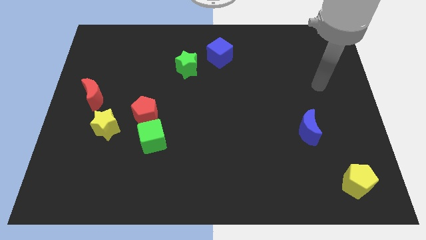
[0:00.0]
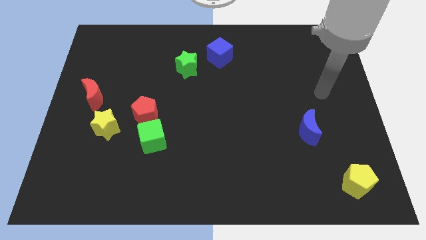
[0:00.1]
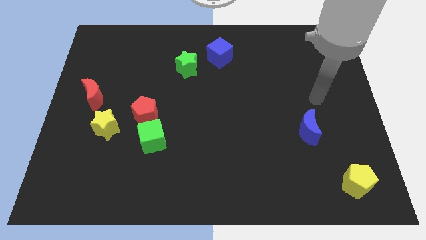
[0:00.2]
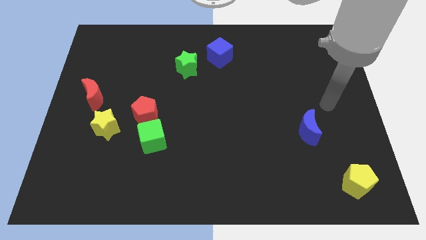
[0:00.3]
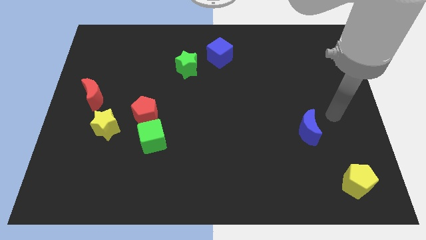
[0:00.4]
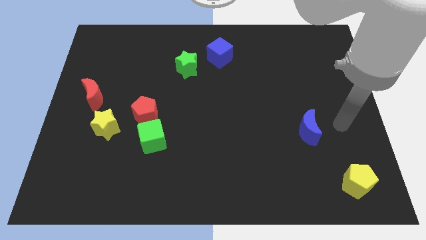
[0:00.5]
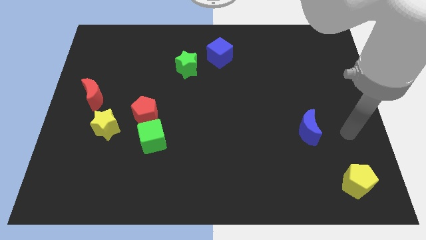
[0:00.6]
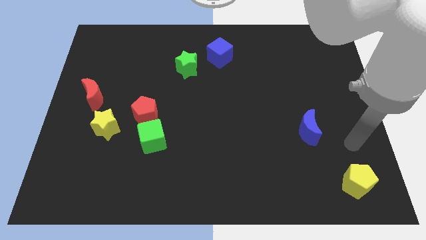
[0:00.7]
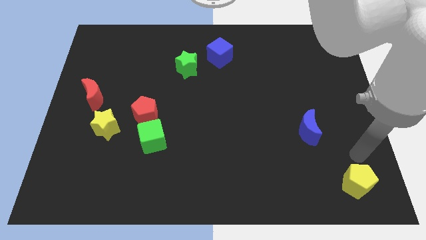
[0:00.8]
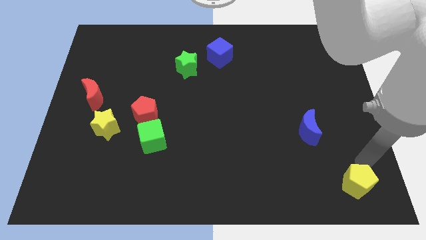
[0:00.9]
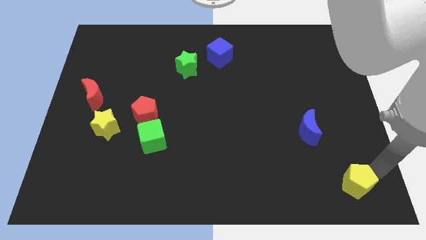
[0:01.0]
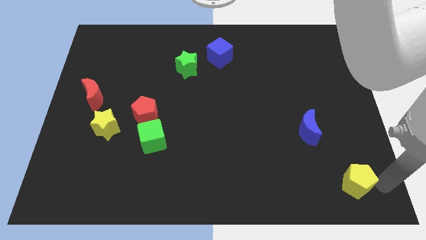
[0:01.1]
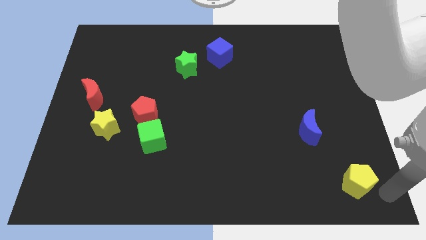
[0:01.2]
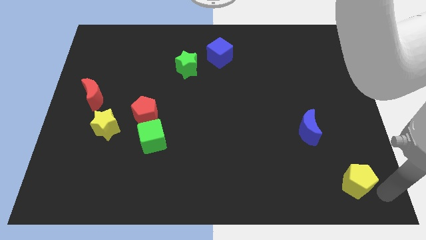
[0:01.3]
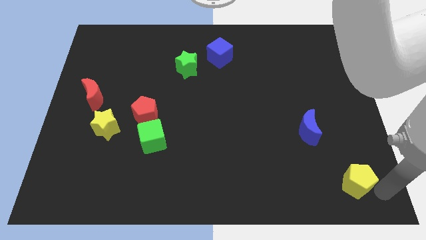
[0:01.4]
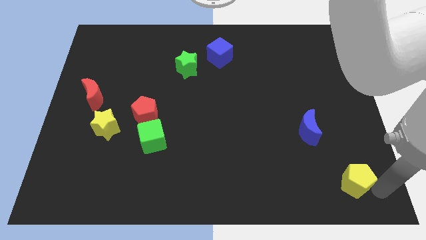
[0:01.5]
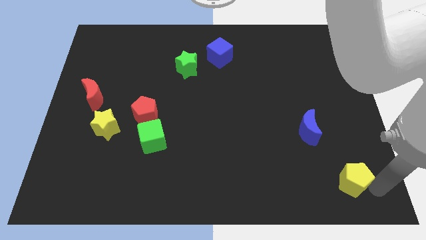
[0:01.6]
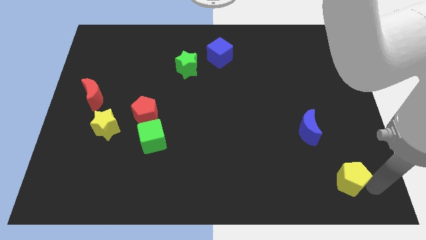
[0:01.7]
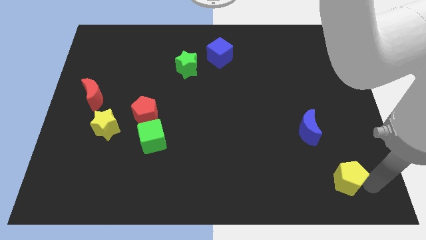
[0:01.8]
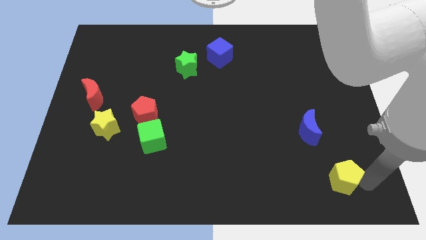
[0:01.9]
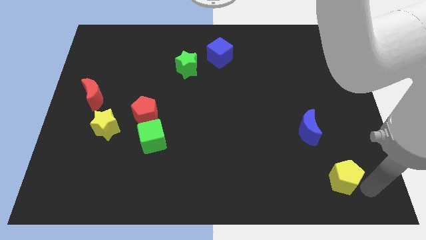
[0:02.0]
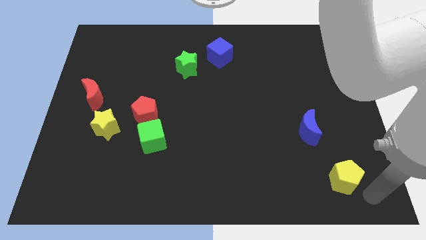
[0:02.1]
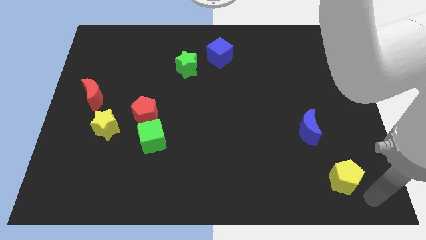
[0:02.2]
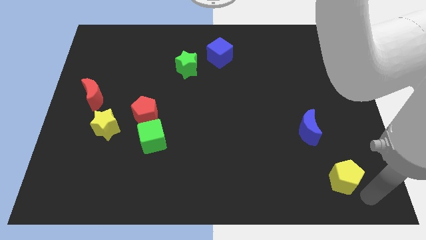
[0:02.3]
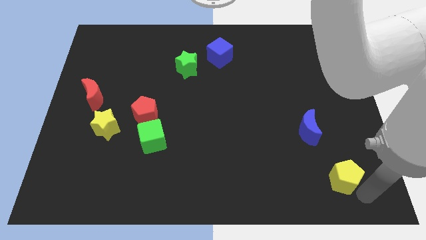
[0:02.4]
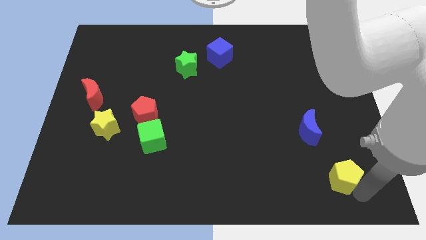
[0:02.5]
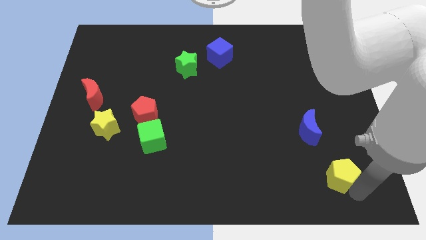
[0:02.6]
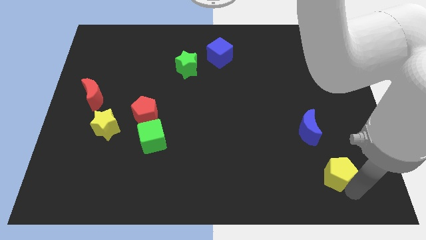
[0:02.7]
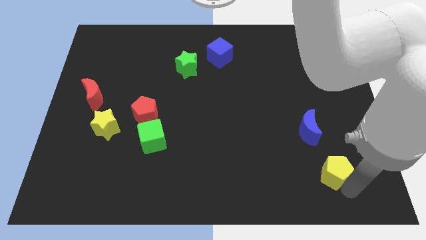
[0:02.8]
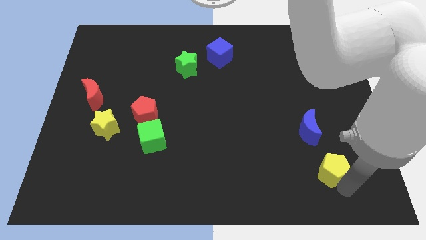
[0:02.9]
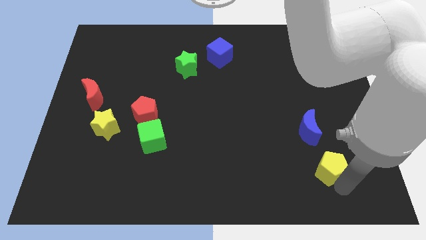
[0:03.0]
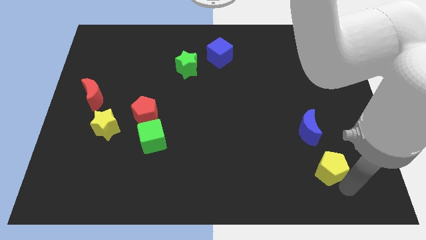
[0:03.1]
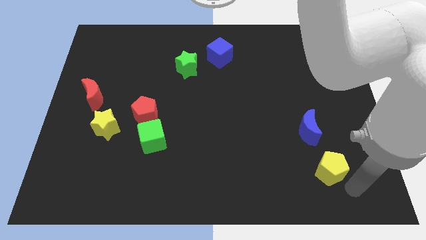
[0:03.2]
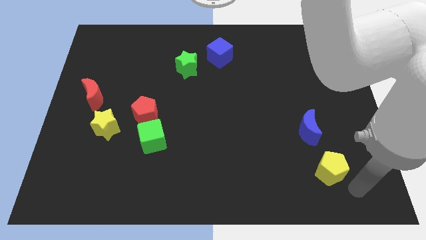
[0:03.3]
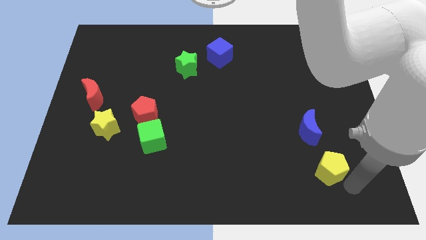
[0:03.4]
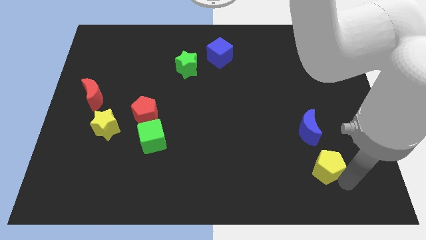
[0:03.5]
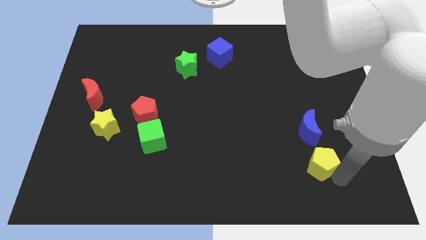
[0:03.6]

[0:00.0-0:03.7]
slightly slide the yellow pentagon upwards and to the left

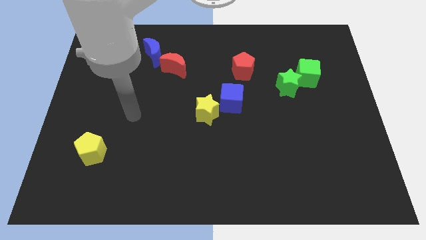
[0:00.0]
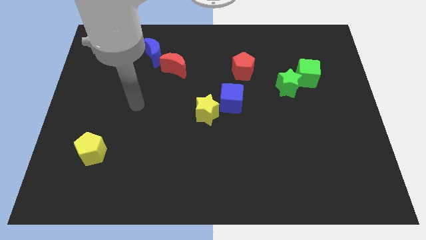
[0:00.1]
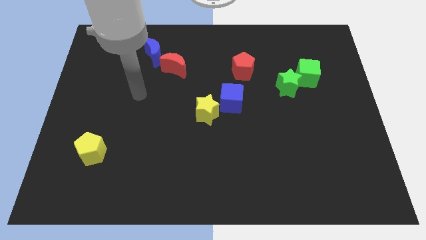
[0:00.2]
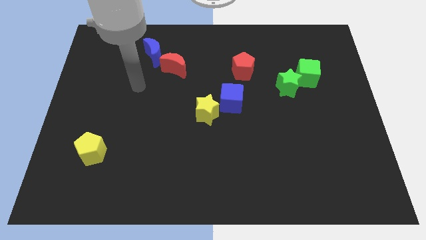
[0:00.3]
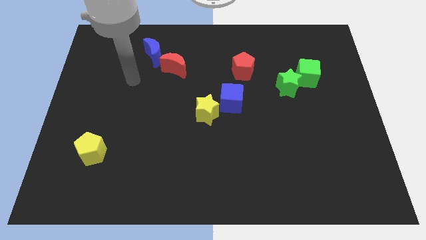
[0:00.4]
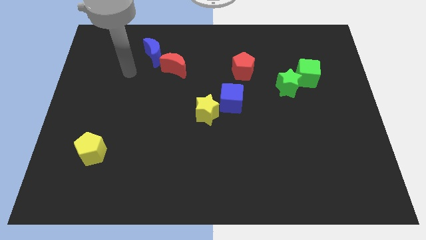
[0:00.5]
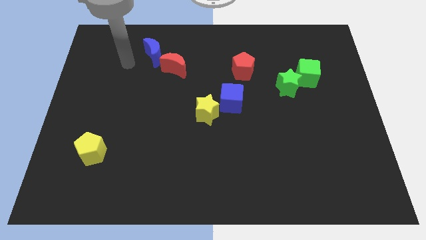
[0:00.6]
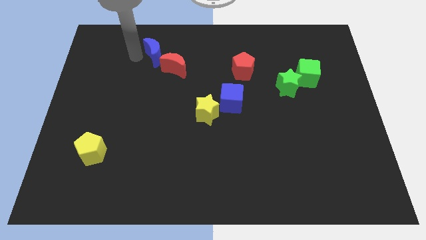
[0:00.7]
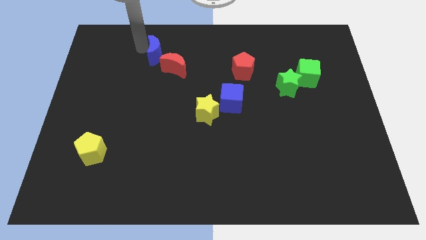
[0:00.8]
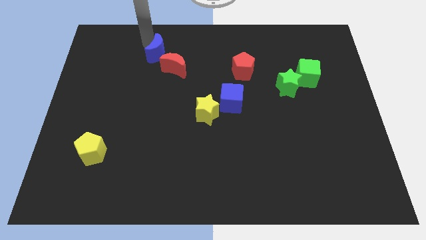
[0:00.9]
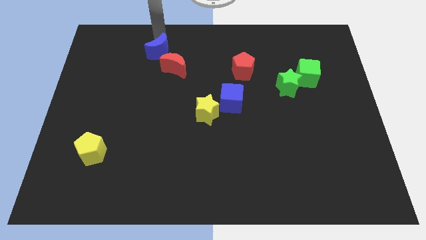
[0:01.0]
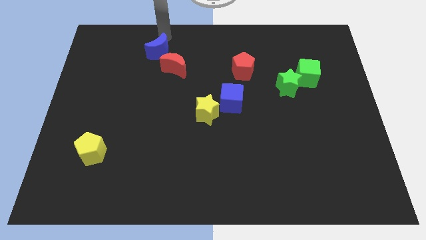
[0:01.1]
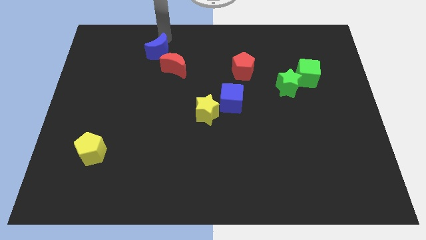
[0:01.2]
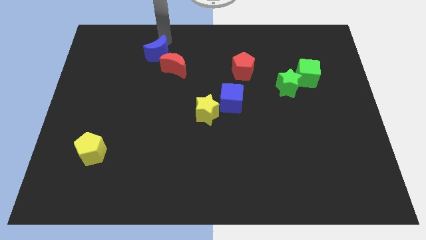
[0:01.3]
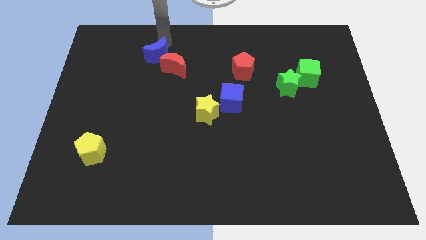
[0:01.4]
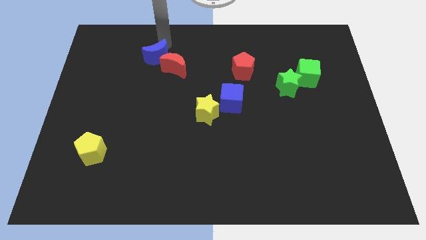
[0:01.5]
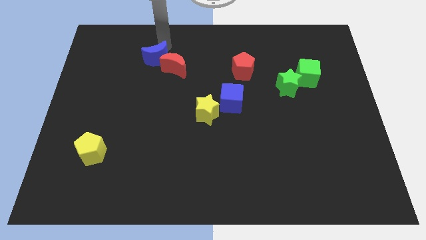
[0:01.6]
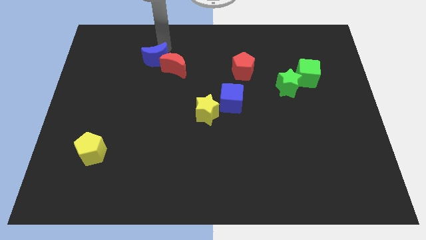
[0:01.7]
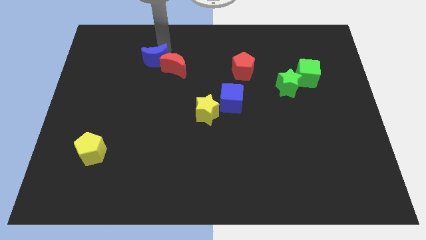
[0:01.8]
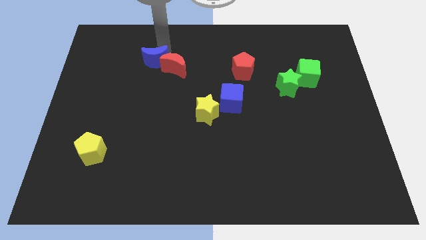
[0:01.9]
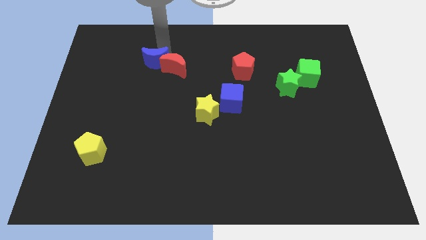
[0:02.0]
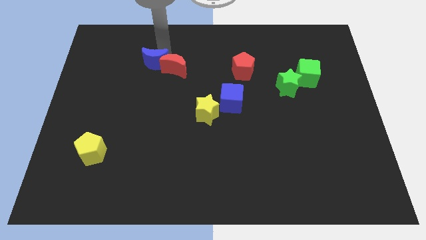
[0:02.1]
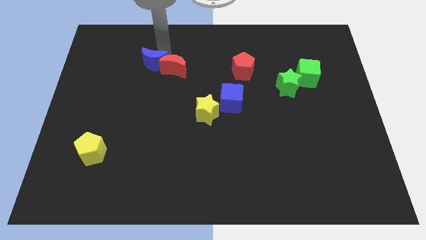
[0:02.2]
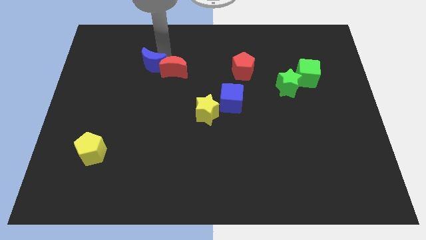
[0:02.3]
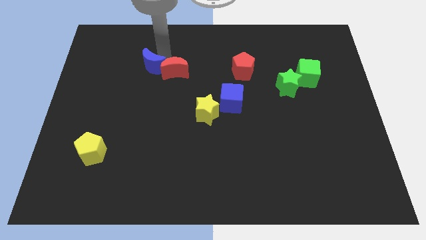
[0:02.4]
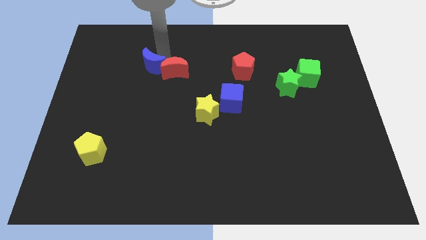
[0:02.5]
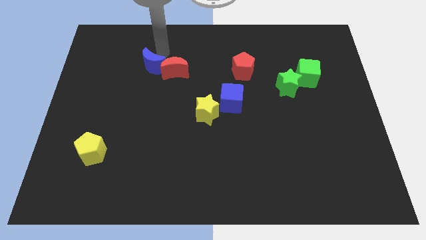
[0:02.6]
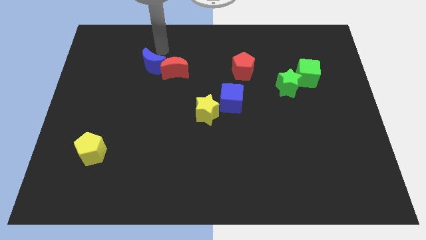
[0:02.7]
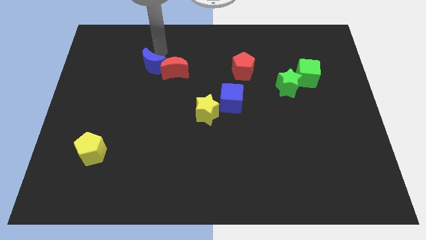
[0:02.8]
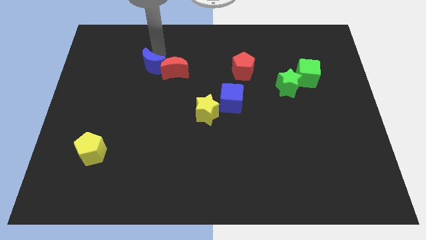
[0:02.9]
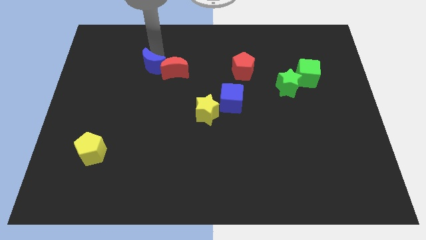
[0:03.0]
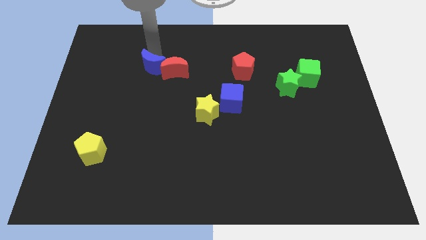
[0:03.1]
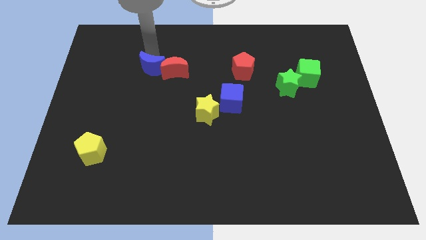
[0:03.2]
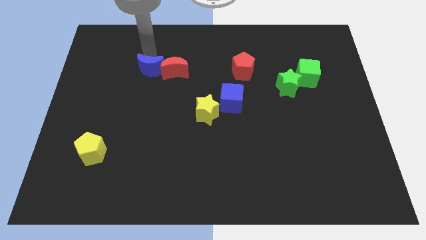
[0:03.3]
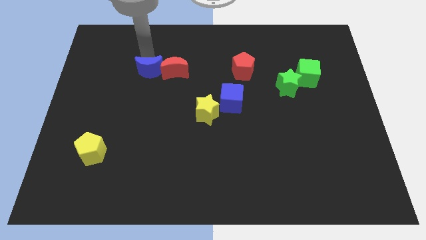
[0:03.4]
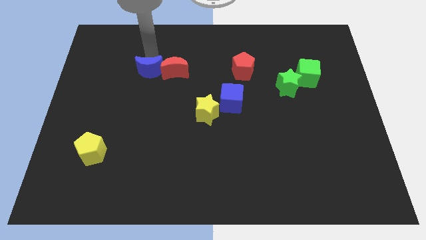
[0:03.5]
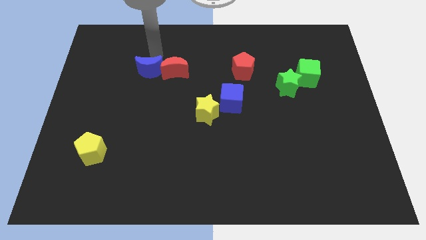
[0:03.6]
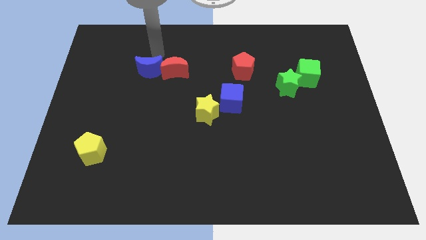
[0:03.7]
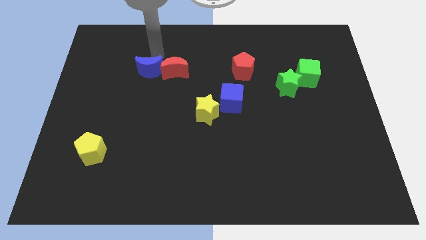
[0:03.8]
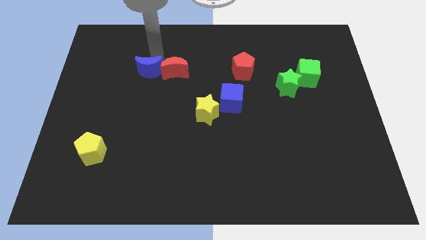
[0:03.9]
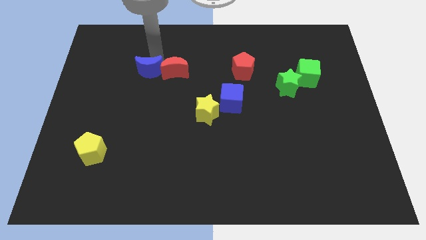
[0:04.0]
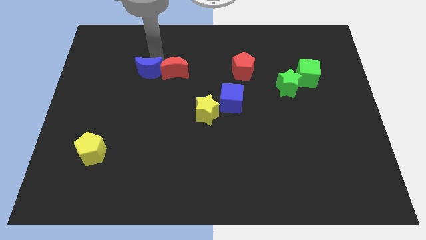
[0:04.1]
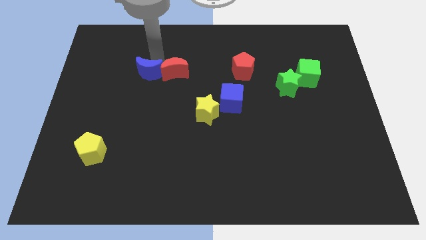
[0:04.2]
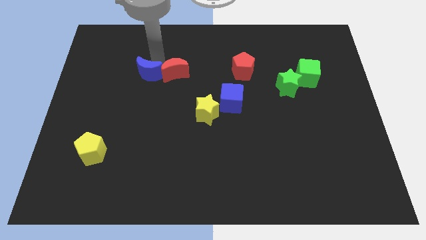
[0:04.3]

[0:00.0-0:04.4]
slide the blue moon somewhat down
